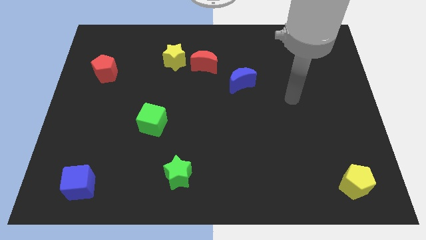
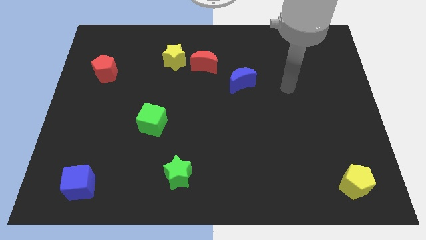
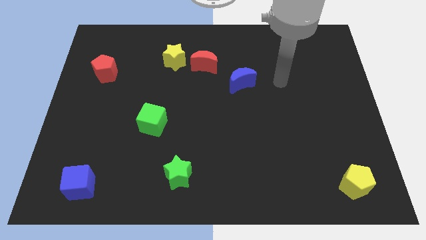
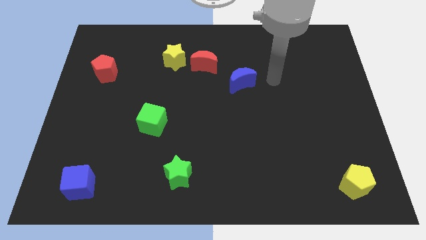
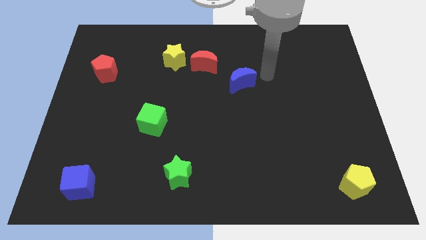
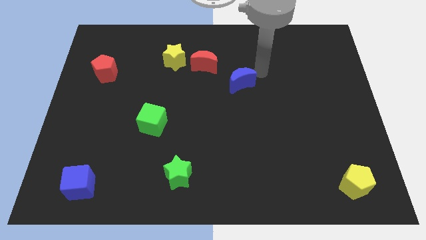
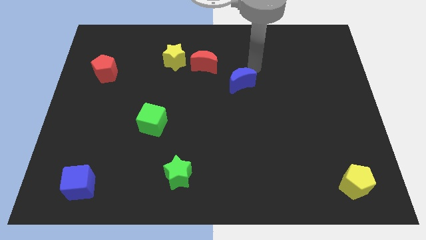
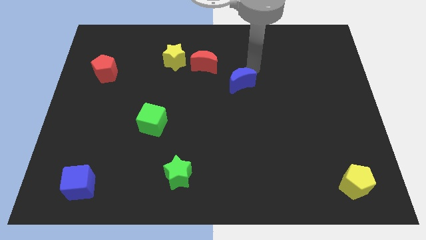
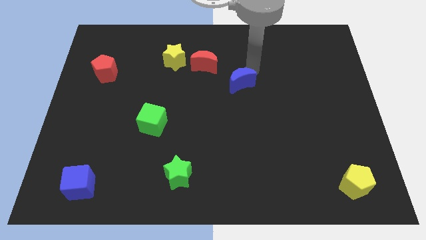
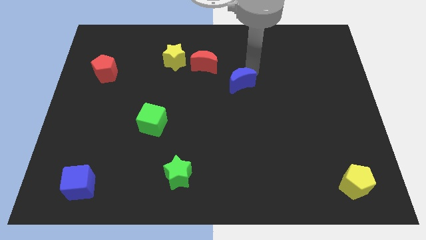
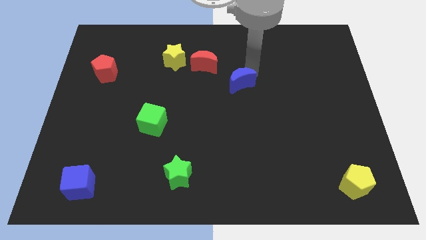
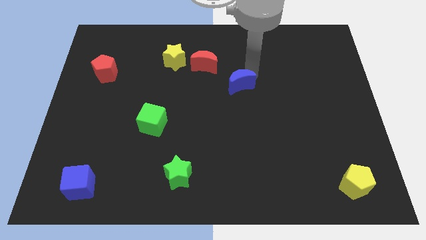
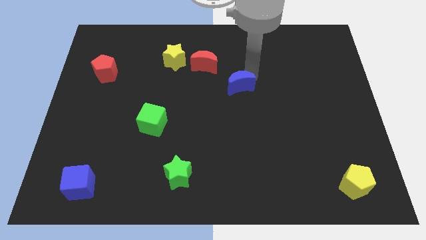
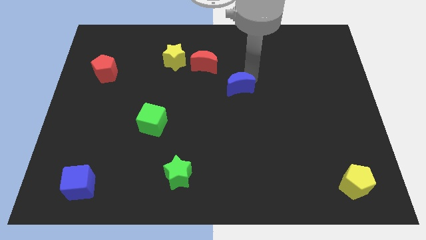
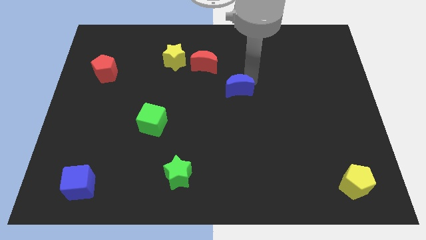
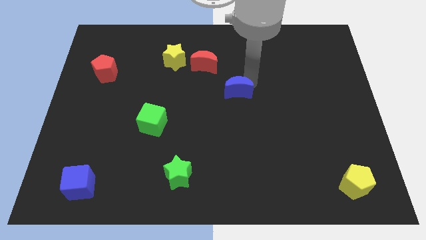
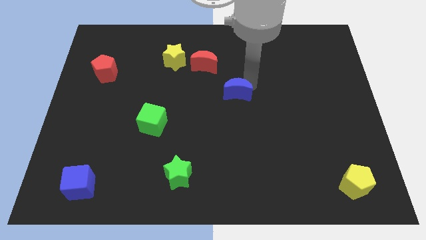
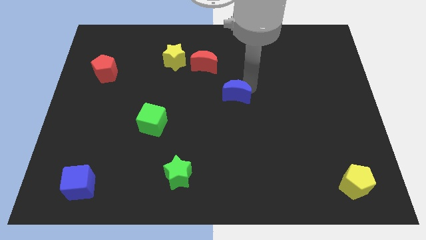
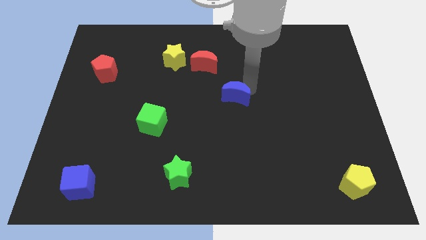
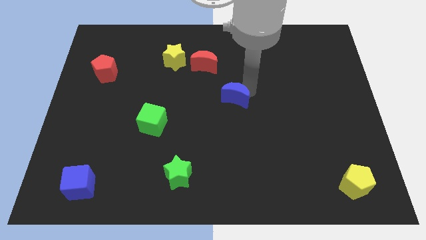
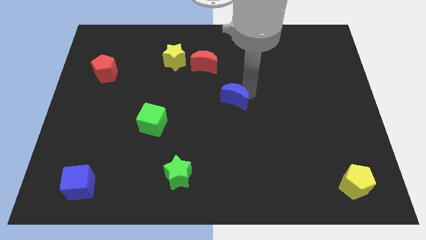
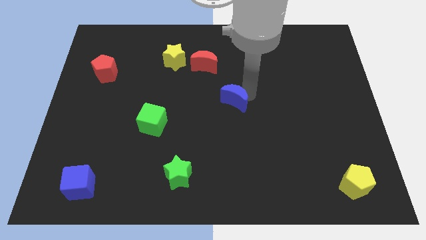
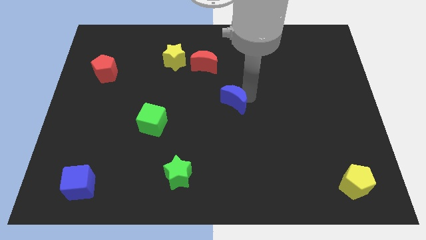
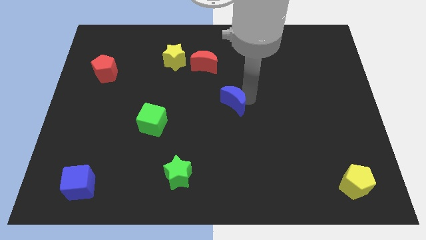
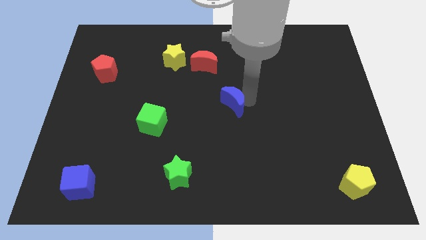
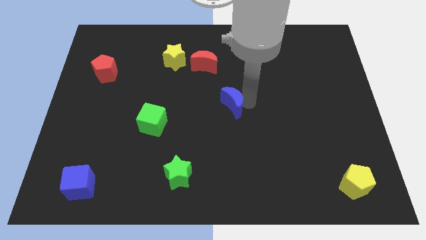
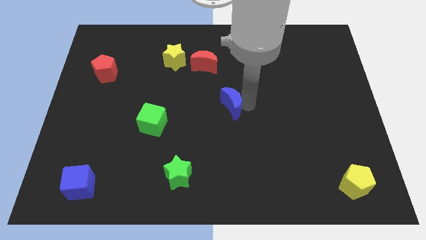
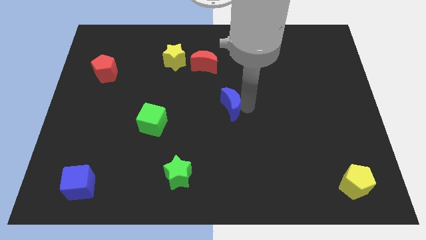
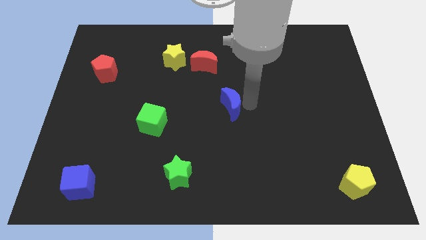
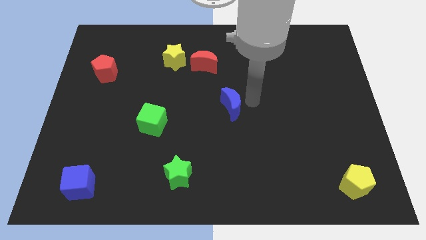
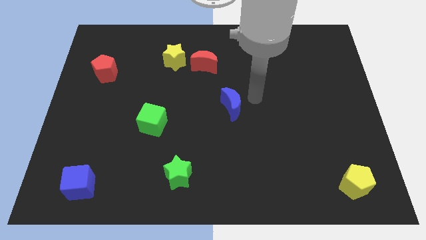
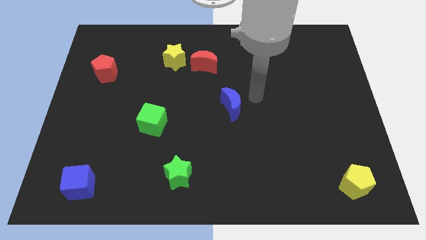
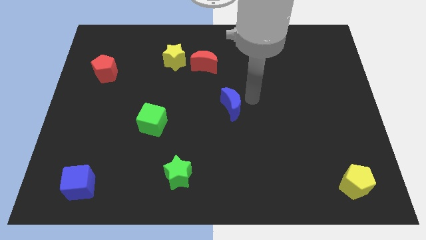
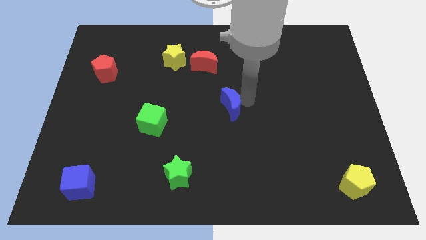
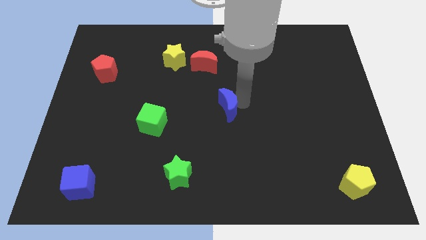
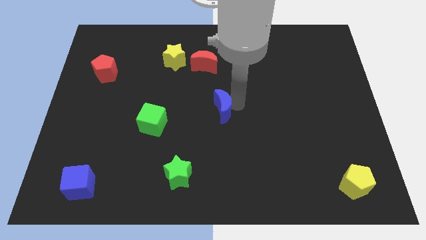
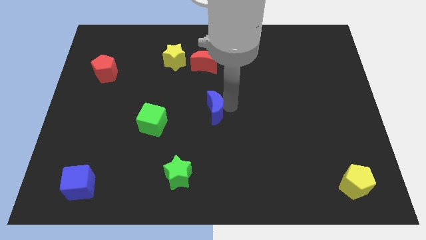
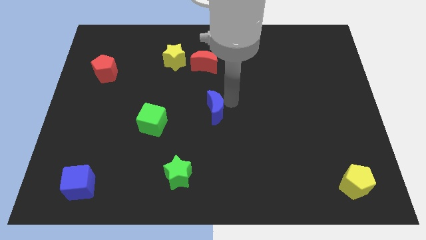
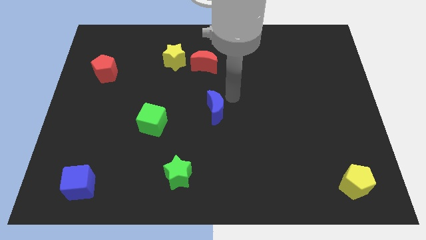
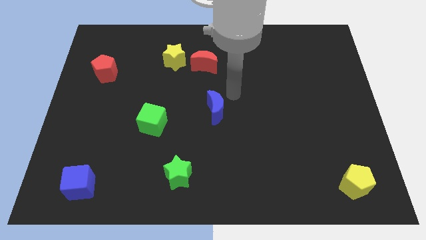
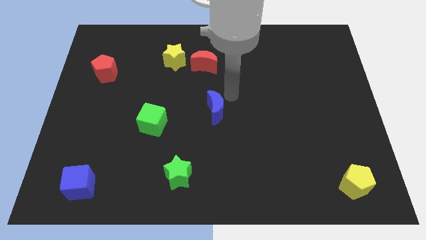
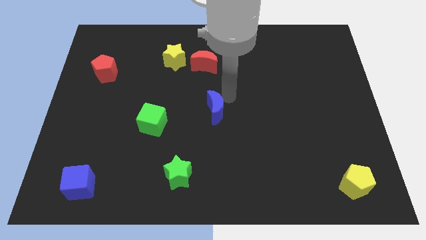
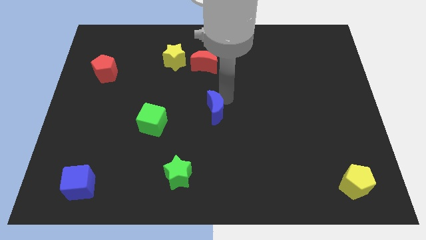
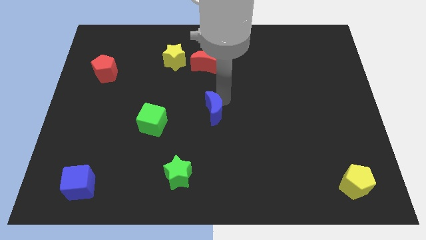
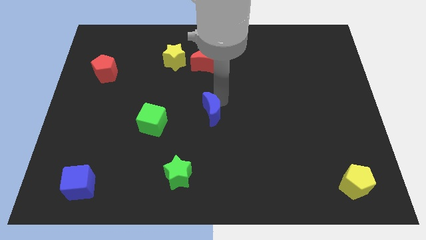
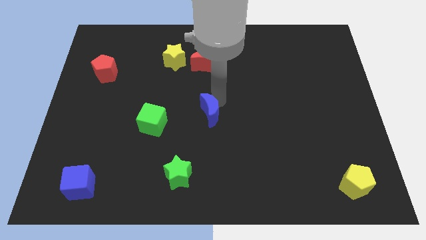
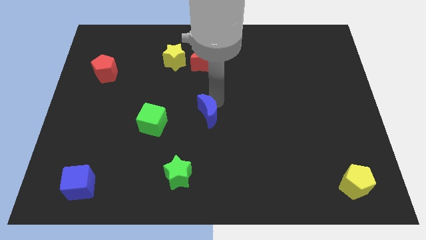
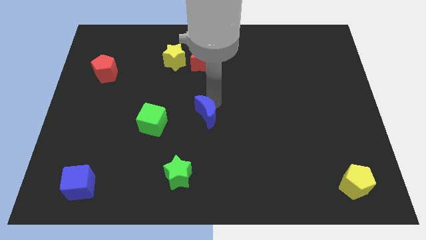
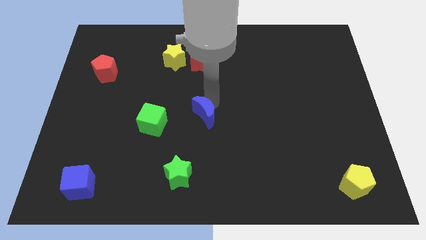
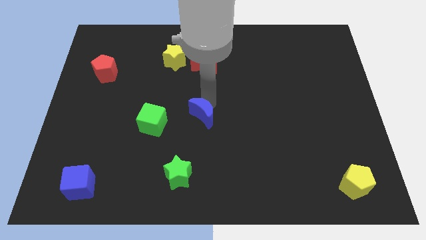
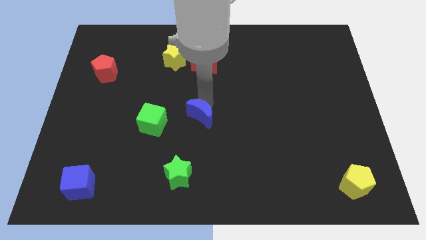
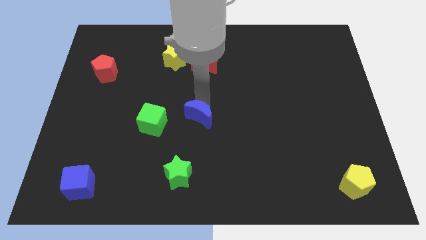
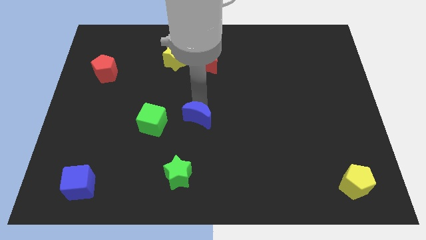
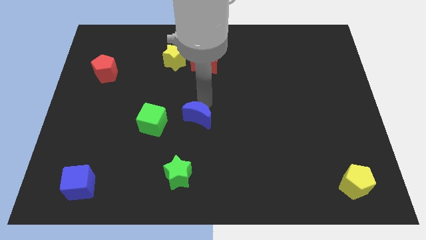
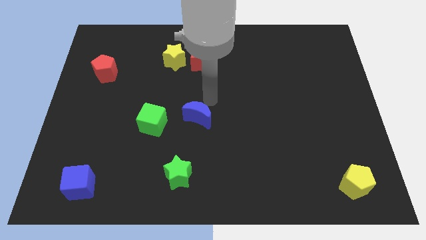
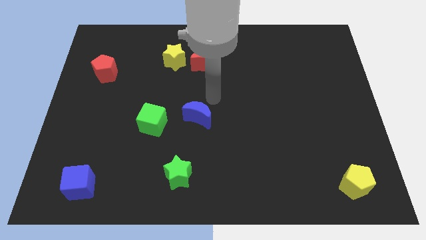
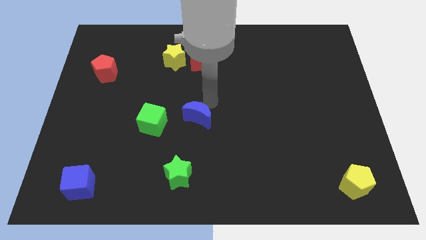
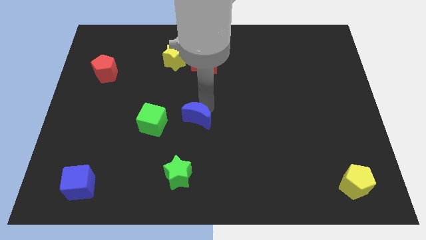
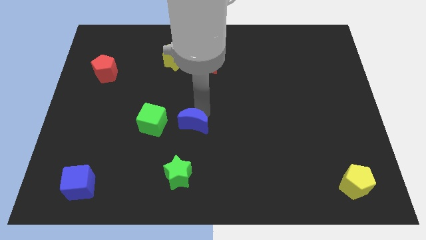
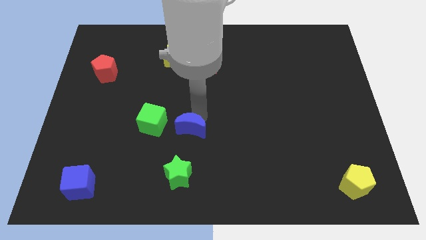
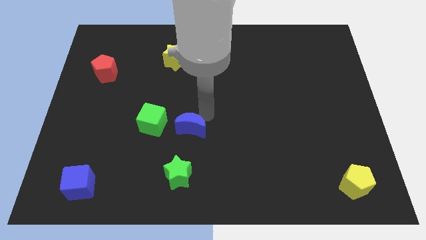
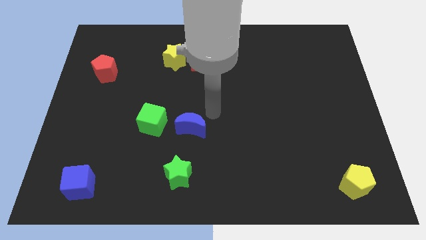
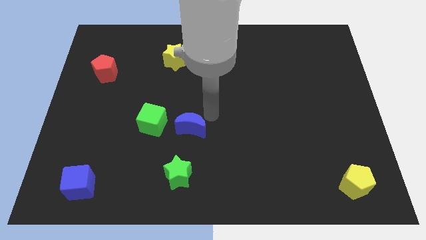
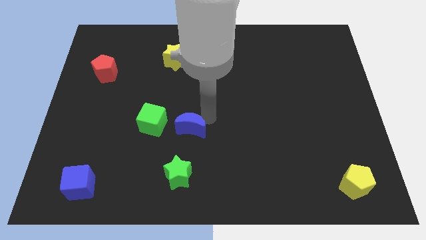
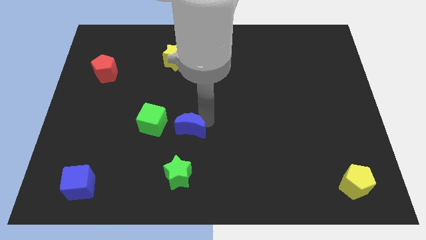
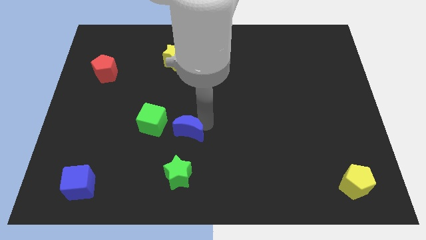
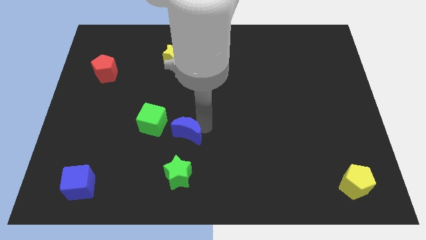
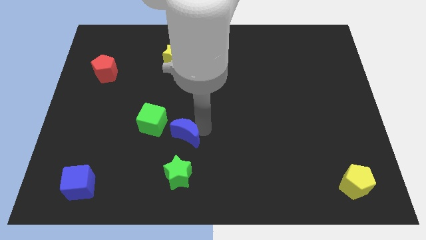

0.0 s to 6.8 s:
push the blue moon down and left

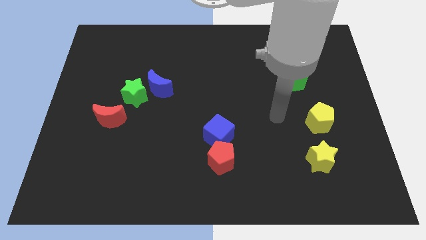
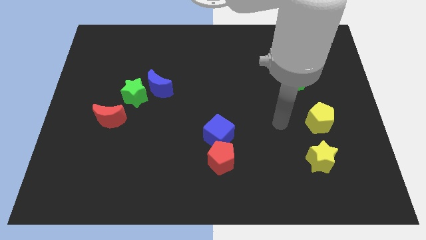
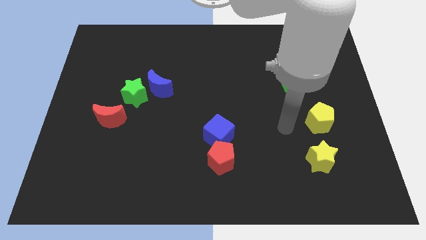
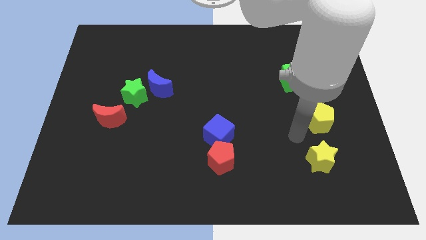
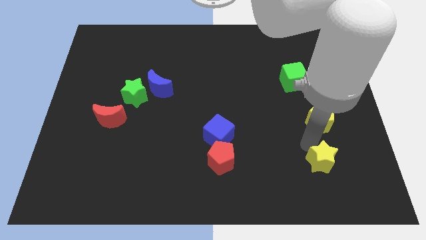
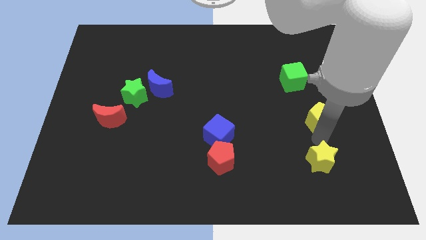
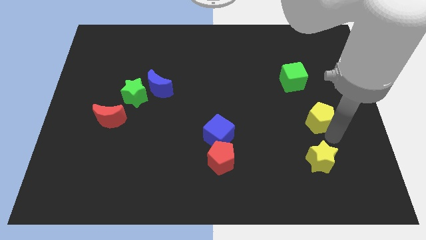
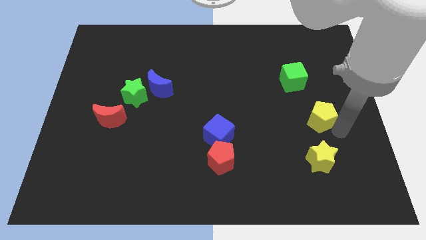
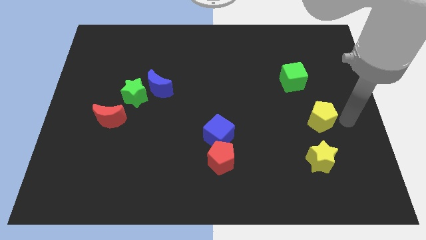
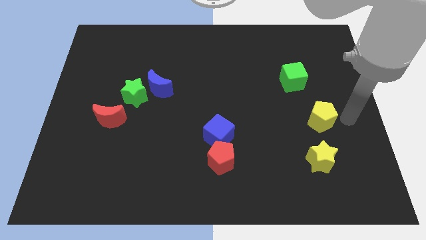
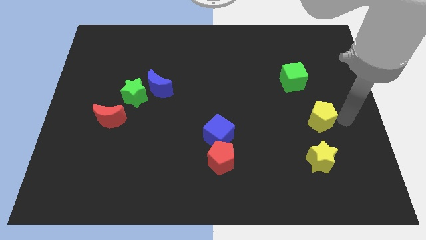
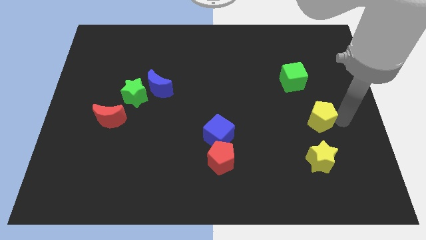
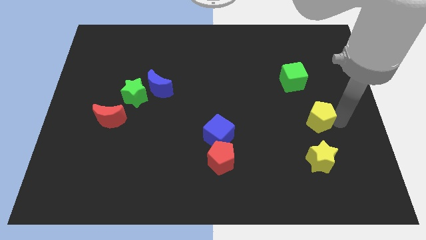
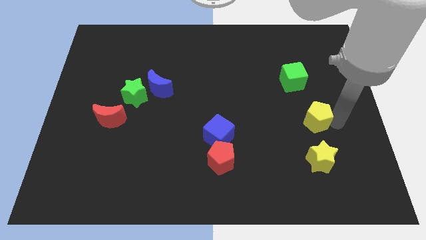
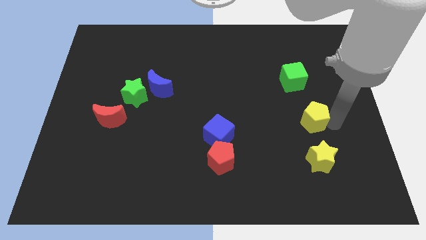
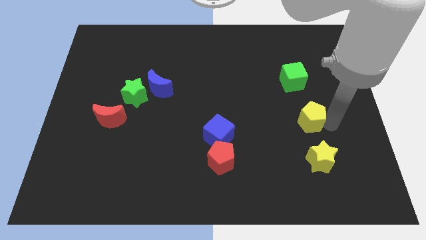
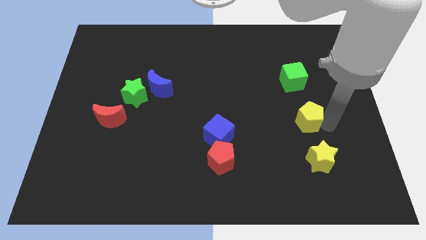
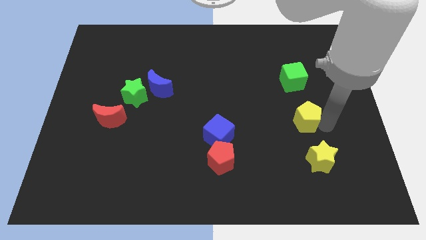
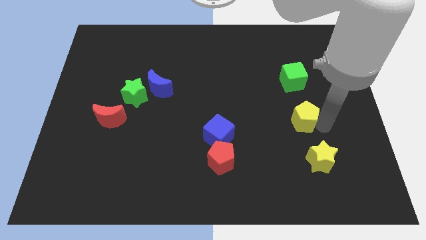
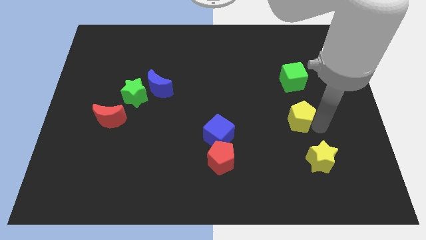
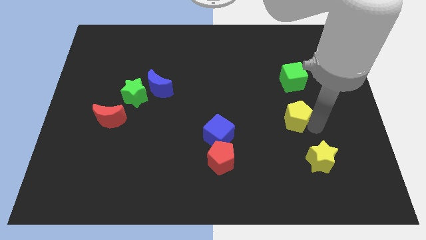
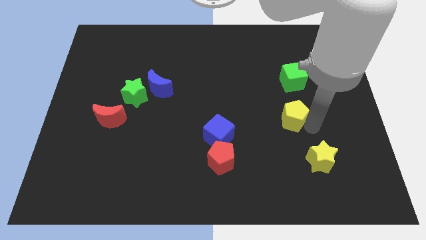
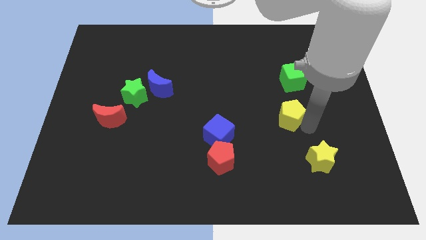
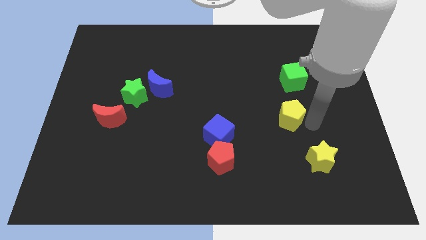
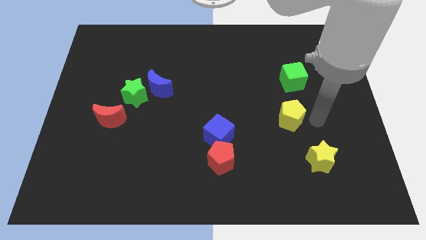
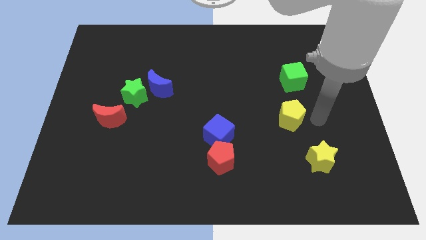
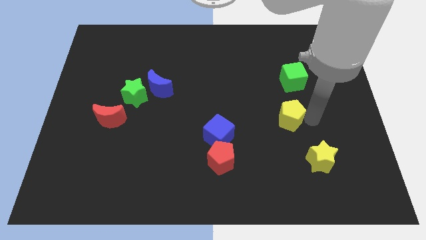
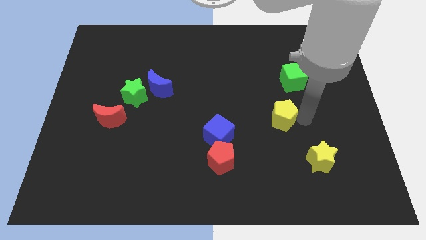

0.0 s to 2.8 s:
slightly move the yellow pentagon left
